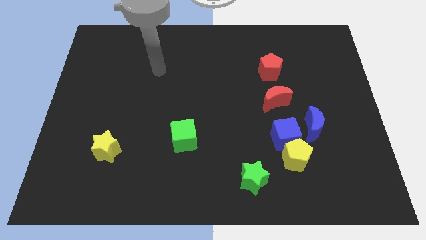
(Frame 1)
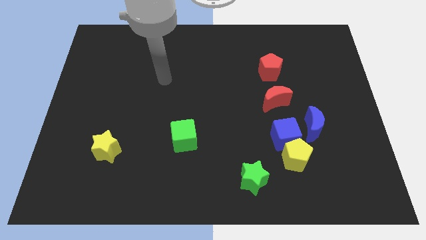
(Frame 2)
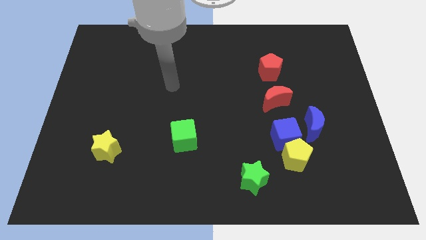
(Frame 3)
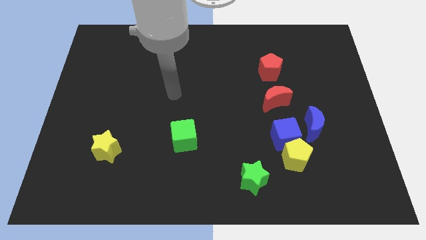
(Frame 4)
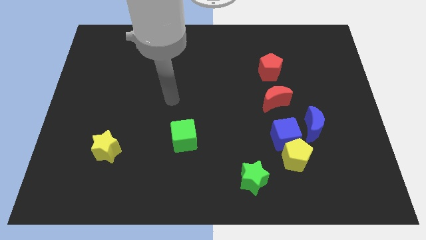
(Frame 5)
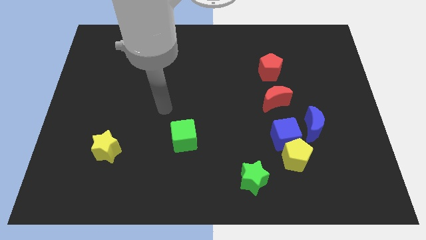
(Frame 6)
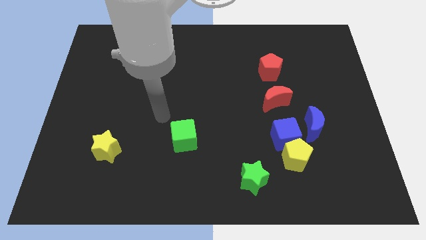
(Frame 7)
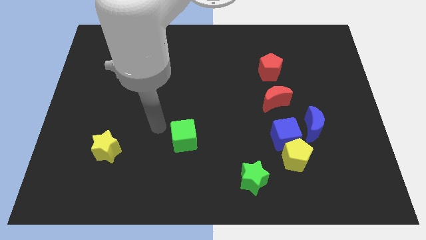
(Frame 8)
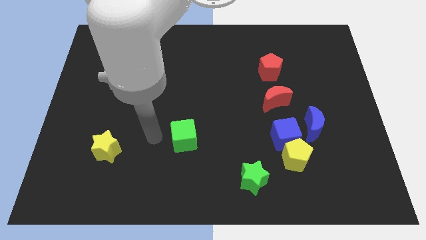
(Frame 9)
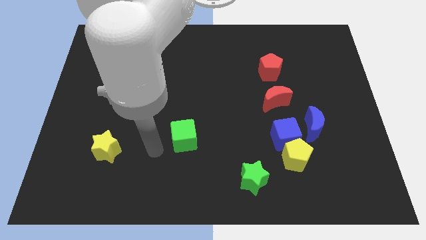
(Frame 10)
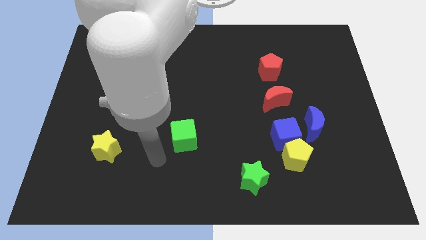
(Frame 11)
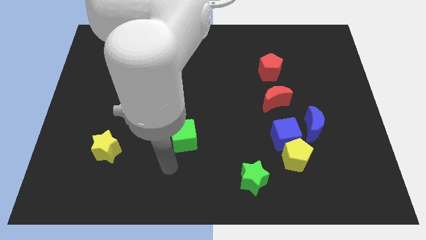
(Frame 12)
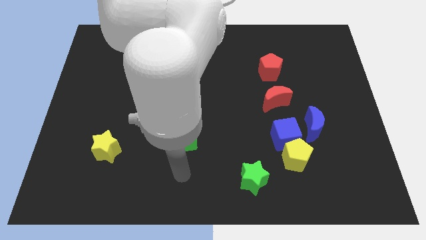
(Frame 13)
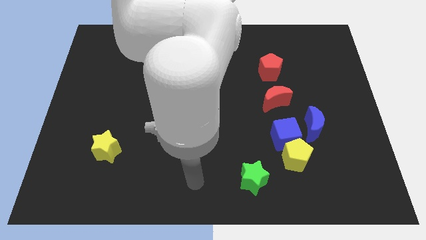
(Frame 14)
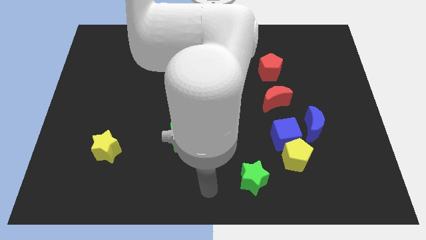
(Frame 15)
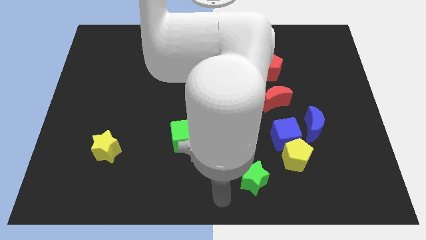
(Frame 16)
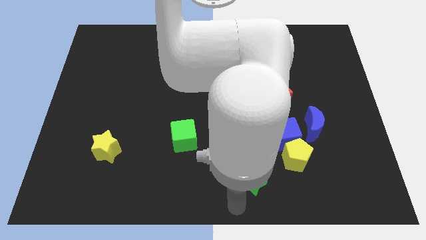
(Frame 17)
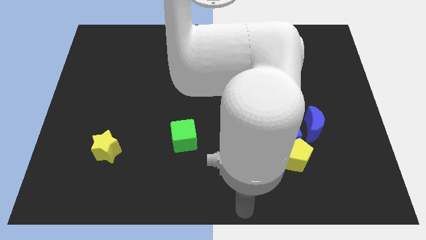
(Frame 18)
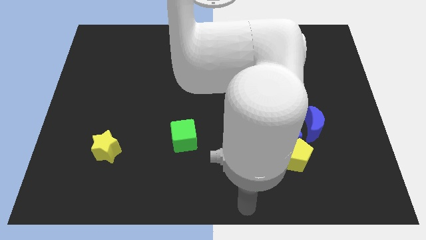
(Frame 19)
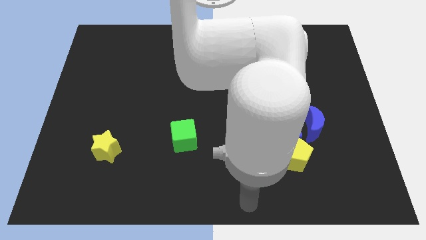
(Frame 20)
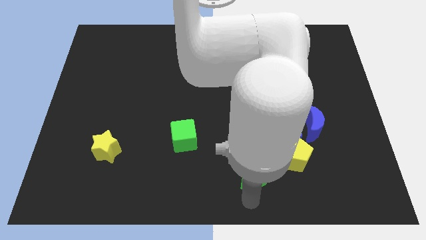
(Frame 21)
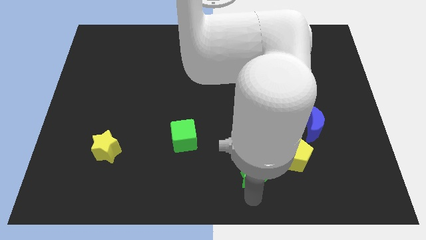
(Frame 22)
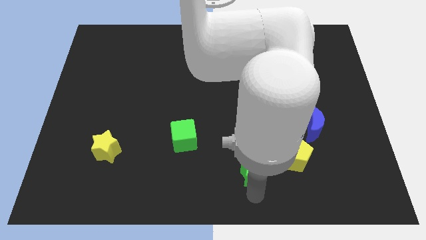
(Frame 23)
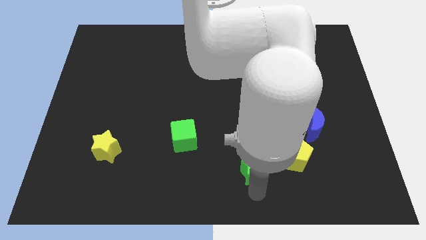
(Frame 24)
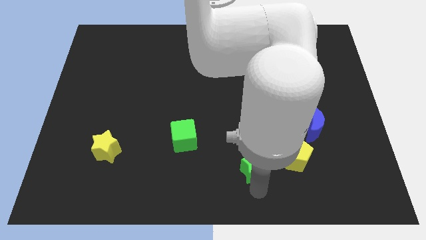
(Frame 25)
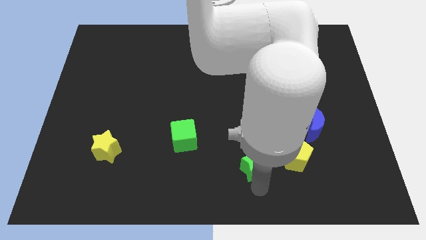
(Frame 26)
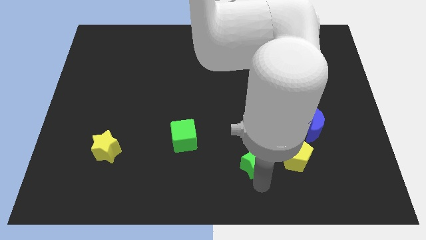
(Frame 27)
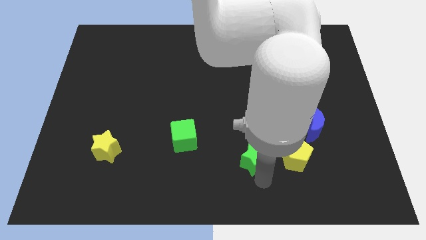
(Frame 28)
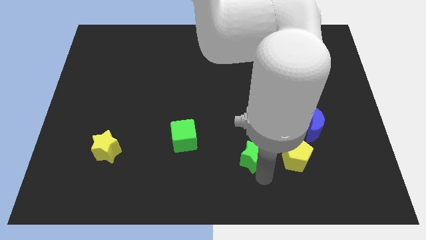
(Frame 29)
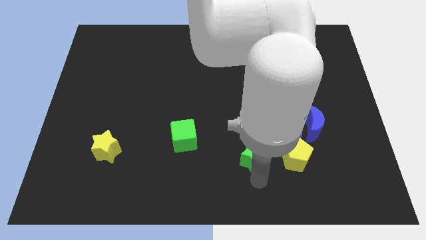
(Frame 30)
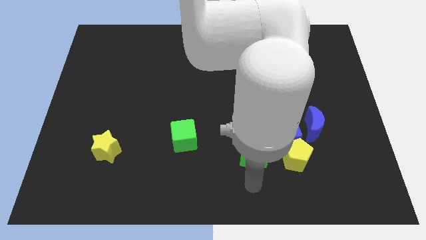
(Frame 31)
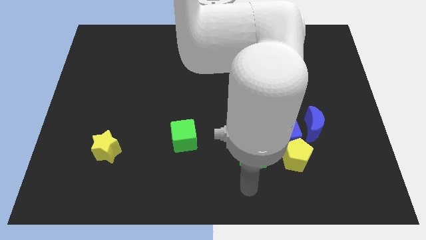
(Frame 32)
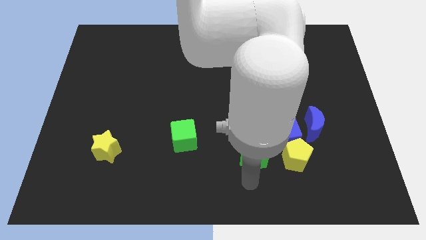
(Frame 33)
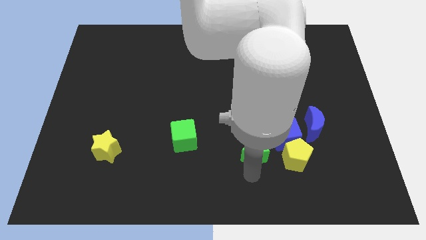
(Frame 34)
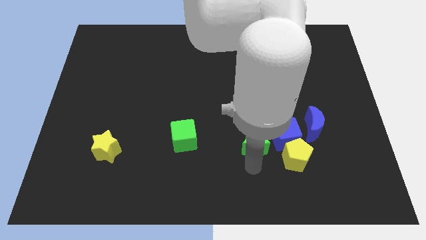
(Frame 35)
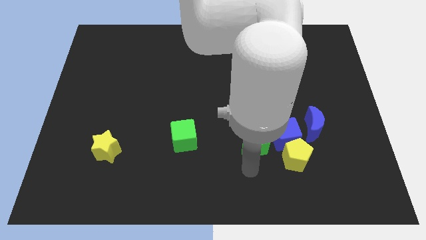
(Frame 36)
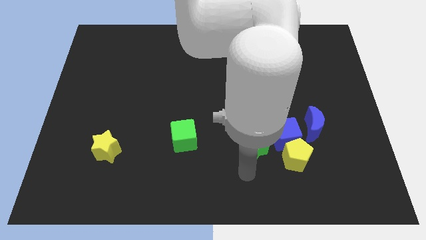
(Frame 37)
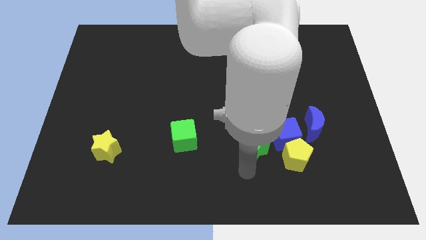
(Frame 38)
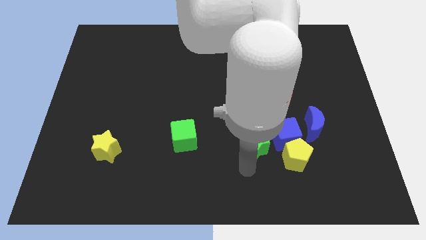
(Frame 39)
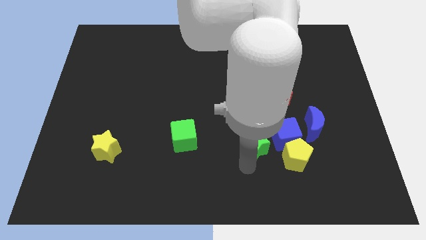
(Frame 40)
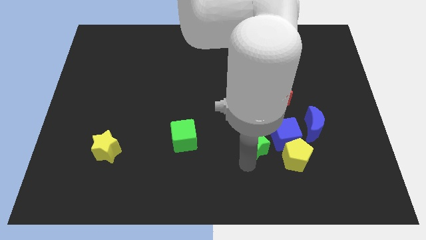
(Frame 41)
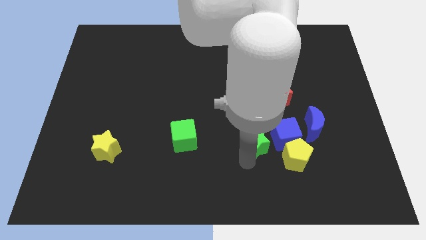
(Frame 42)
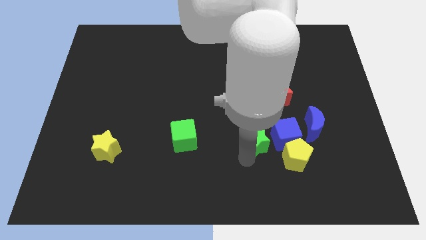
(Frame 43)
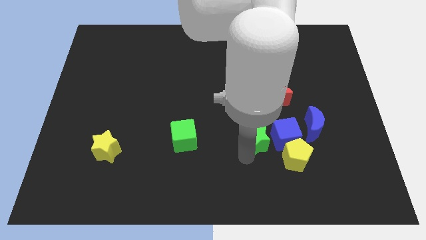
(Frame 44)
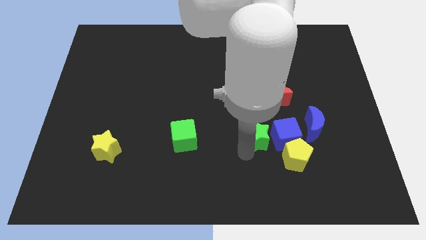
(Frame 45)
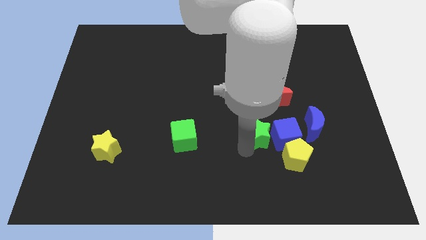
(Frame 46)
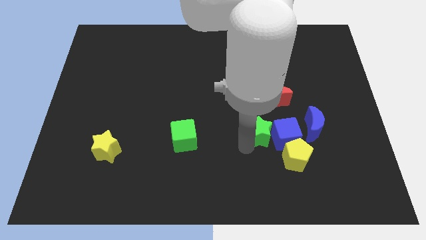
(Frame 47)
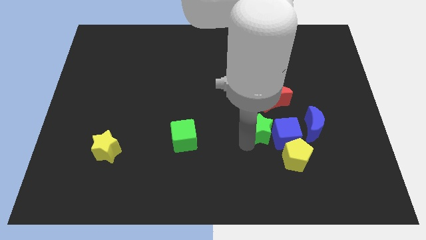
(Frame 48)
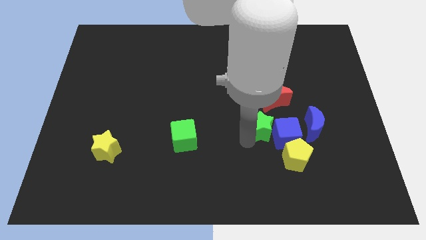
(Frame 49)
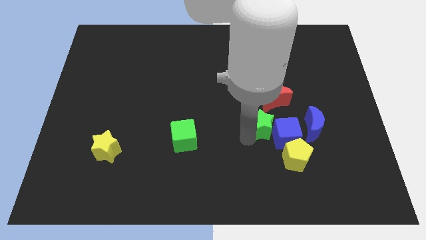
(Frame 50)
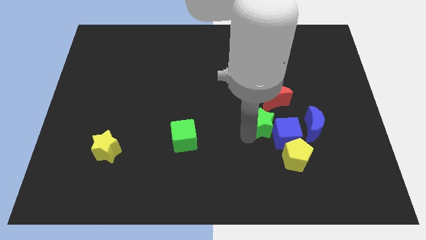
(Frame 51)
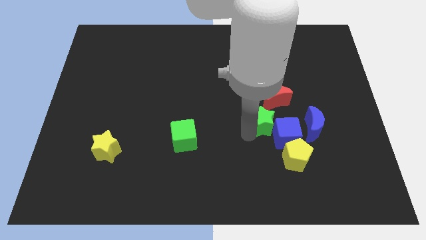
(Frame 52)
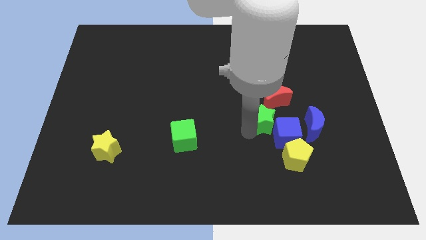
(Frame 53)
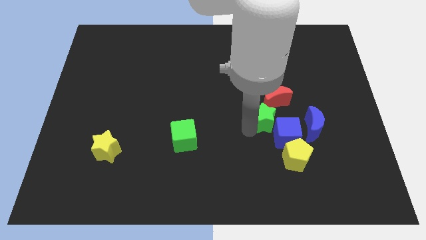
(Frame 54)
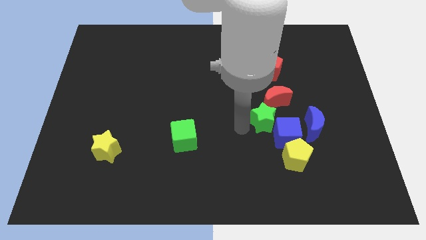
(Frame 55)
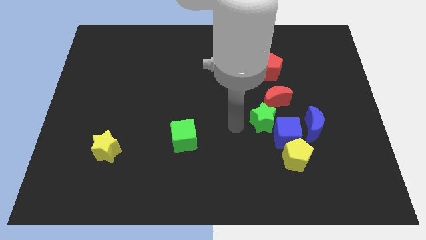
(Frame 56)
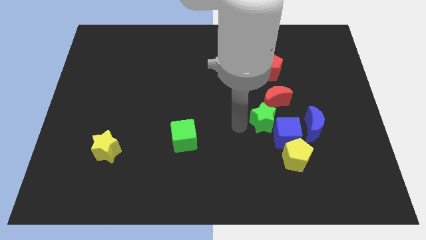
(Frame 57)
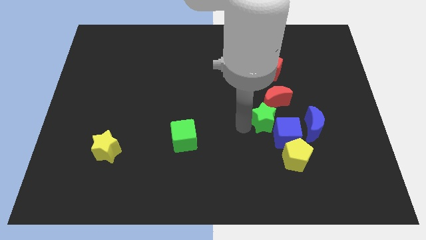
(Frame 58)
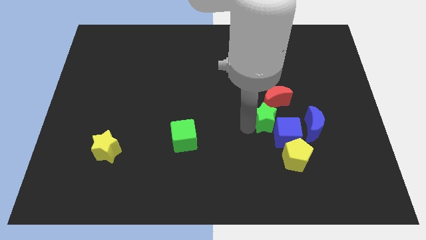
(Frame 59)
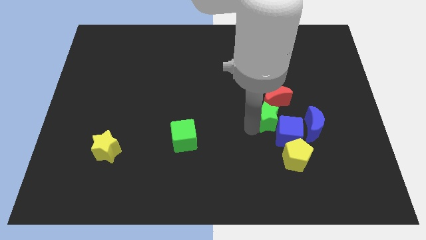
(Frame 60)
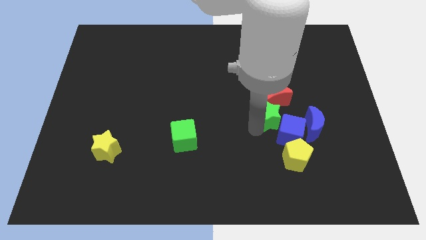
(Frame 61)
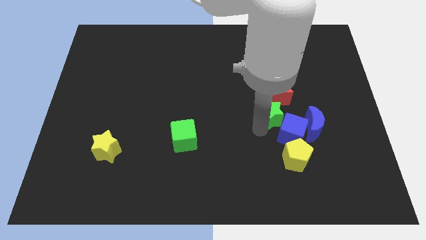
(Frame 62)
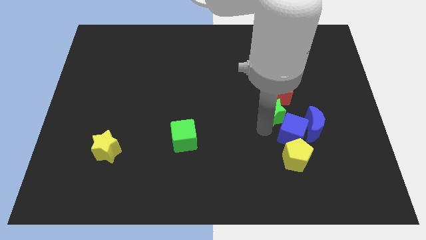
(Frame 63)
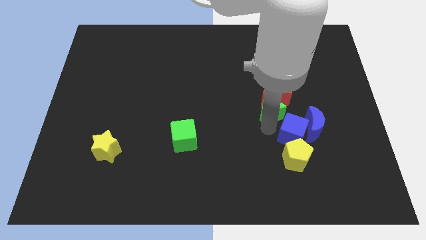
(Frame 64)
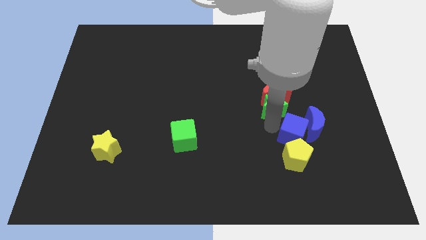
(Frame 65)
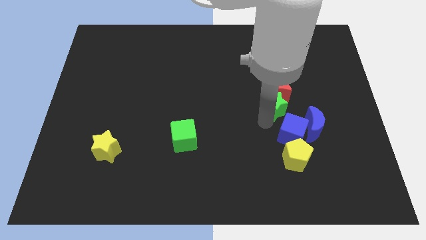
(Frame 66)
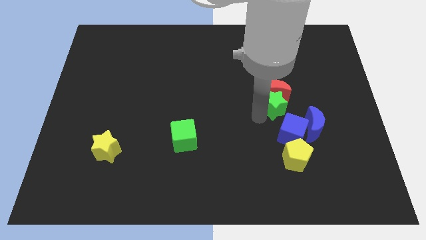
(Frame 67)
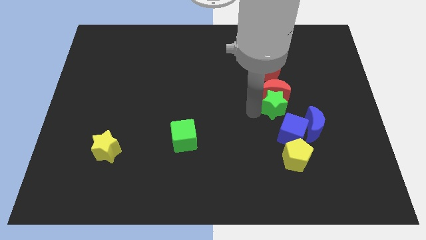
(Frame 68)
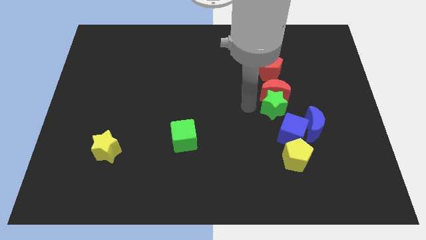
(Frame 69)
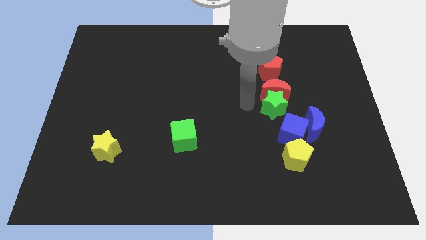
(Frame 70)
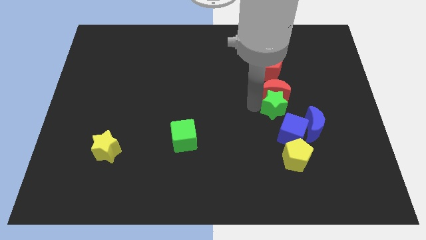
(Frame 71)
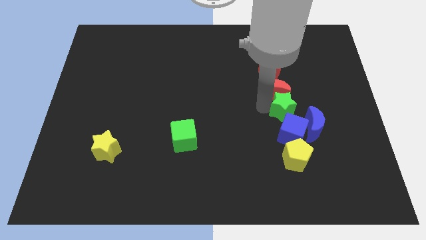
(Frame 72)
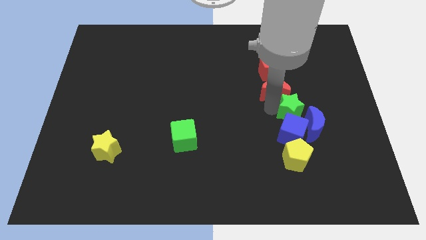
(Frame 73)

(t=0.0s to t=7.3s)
push the green star diagonally up and to the right of the blue cube
